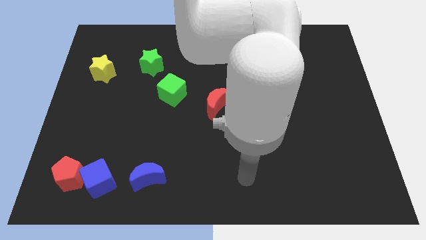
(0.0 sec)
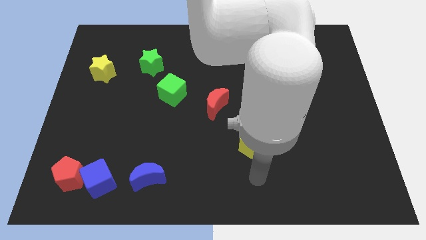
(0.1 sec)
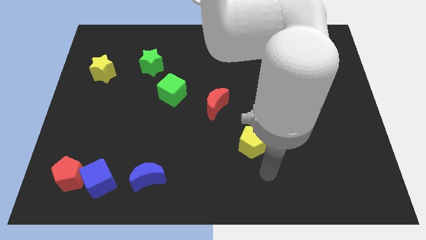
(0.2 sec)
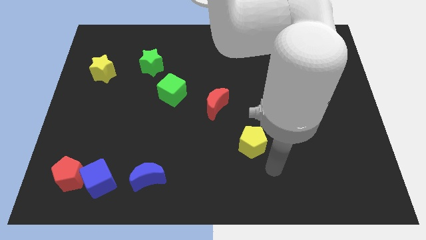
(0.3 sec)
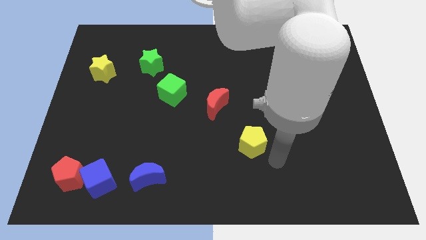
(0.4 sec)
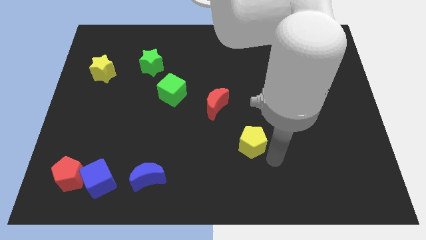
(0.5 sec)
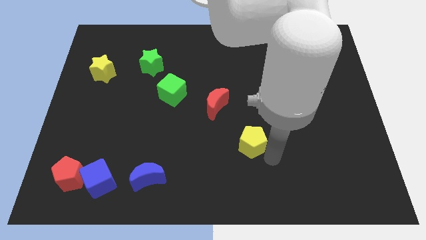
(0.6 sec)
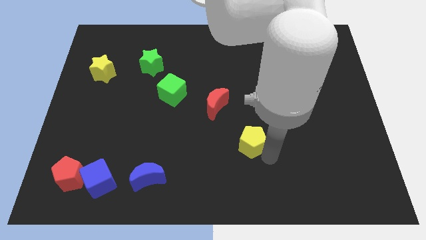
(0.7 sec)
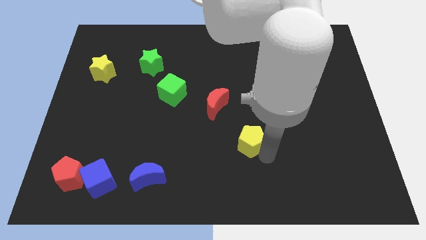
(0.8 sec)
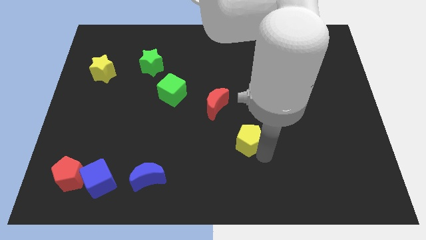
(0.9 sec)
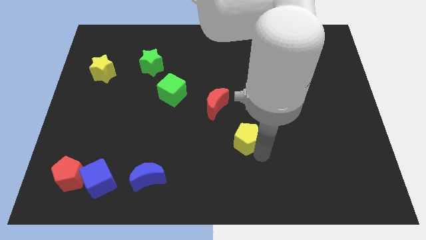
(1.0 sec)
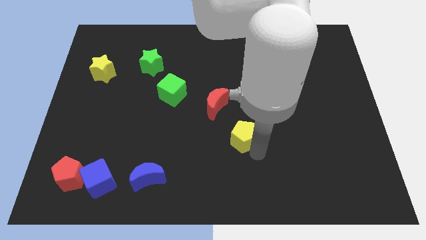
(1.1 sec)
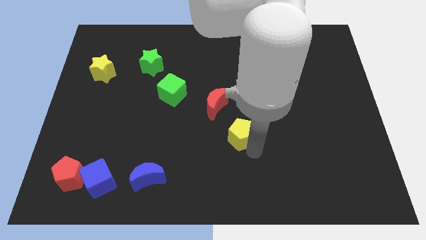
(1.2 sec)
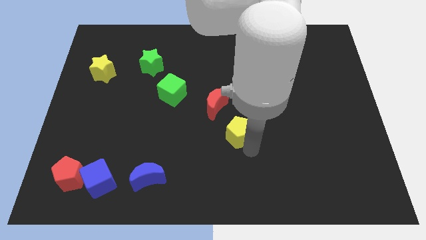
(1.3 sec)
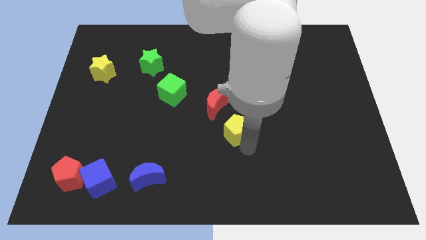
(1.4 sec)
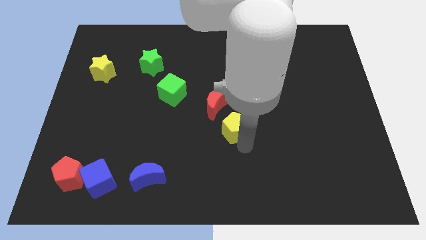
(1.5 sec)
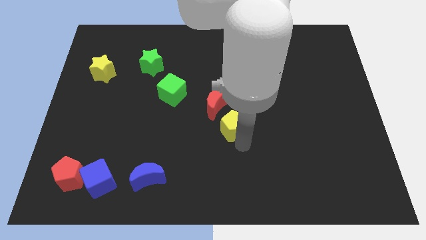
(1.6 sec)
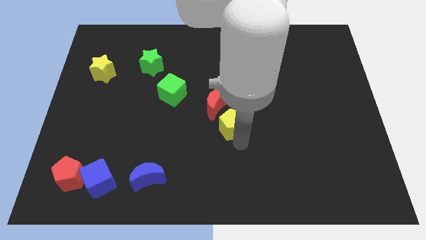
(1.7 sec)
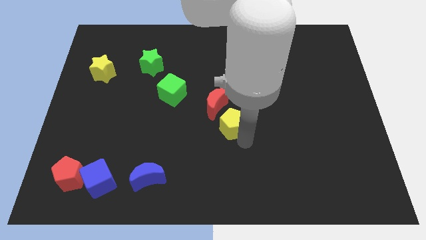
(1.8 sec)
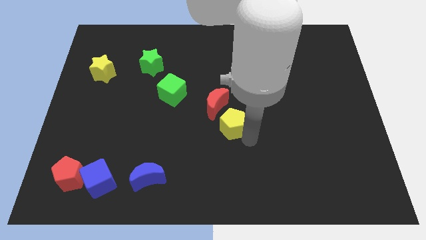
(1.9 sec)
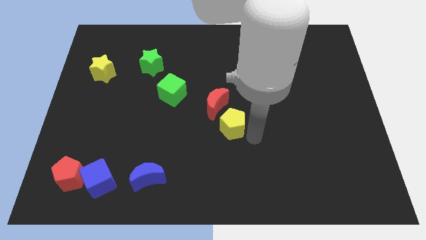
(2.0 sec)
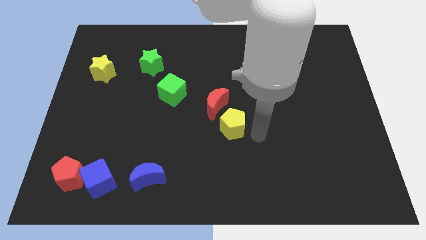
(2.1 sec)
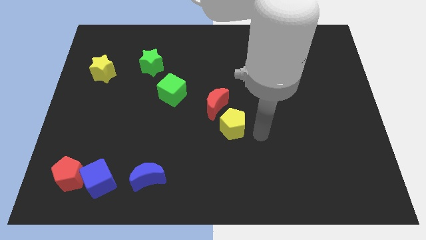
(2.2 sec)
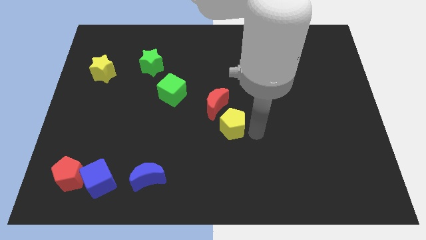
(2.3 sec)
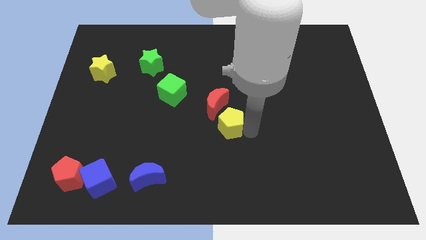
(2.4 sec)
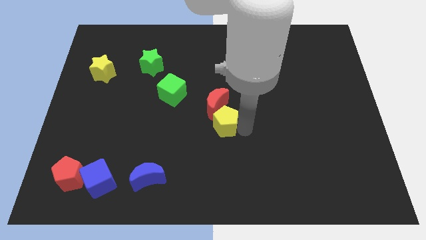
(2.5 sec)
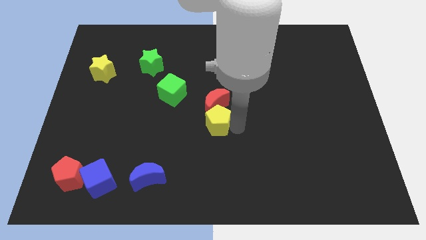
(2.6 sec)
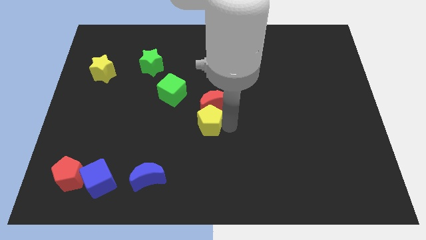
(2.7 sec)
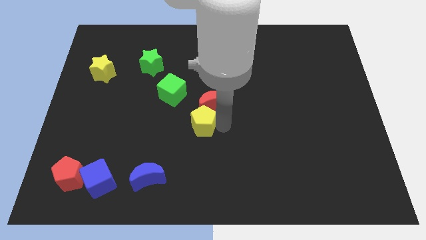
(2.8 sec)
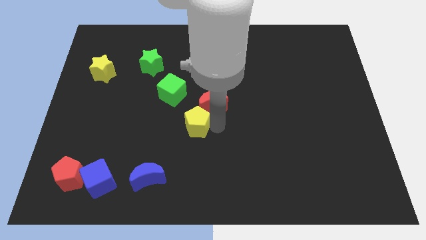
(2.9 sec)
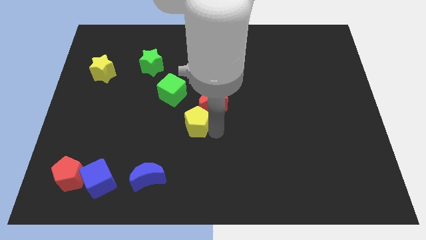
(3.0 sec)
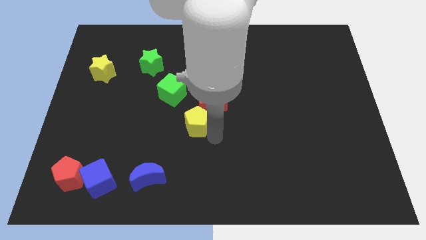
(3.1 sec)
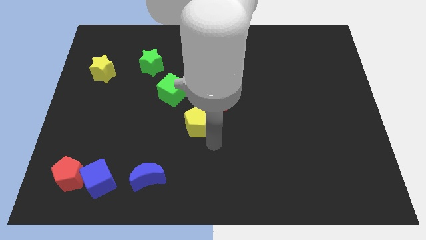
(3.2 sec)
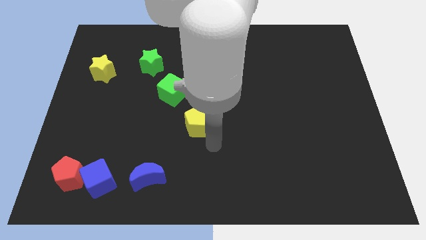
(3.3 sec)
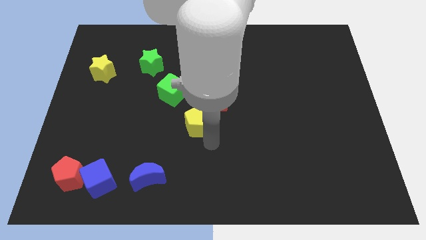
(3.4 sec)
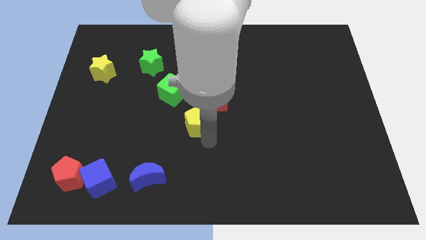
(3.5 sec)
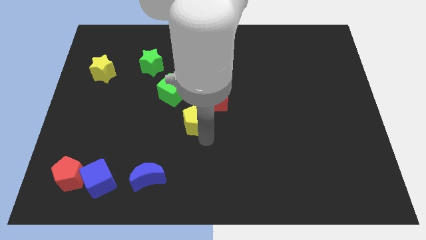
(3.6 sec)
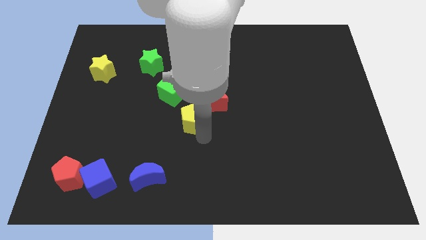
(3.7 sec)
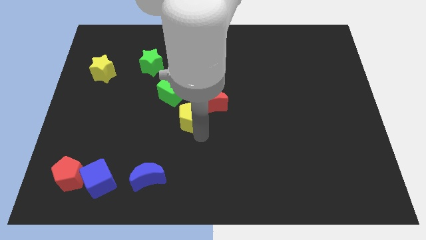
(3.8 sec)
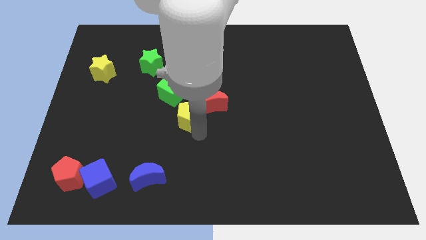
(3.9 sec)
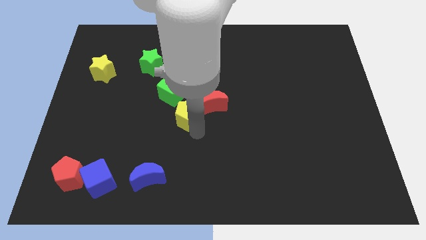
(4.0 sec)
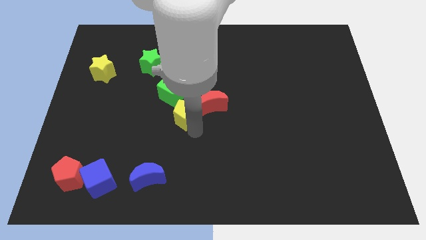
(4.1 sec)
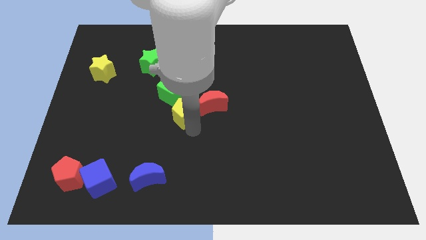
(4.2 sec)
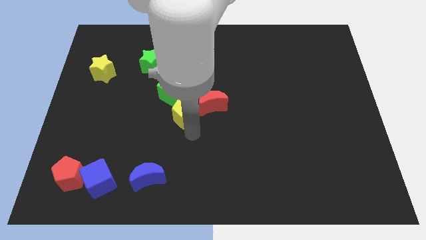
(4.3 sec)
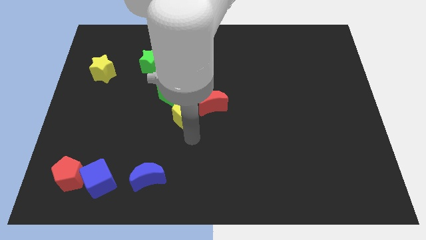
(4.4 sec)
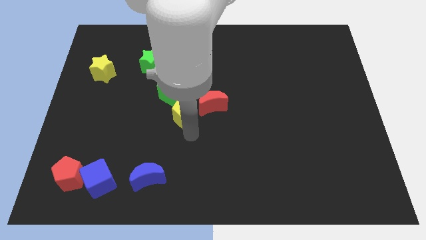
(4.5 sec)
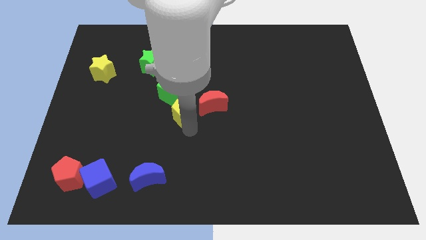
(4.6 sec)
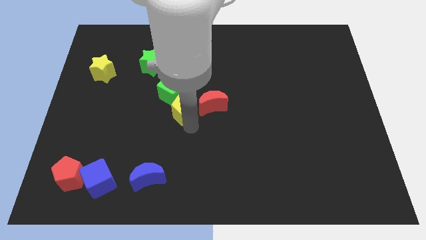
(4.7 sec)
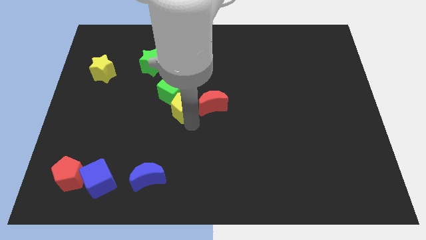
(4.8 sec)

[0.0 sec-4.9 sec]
move the yellow pentagon close to the green cube

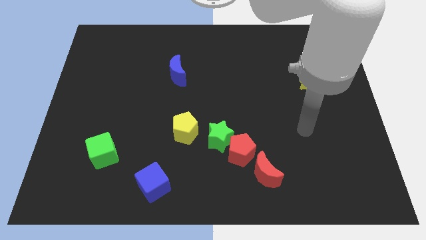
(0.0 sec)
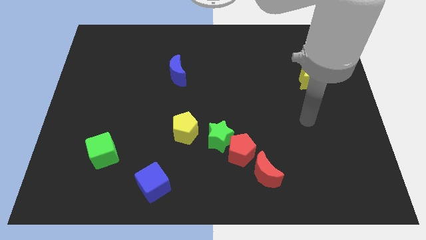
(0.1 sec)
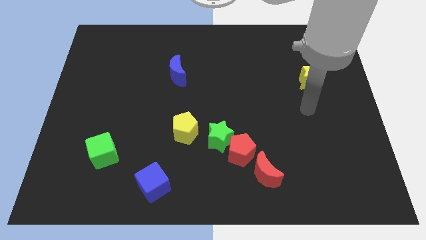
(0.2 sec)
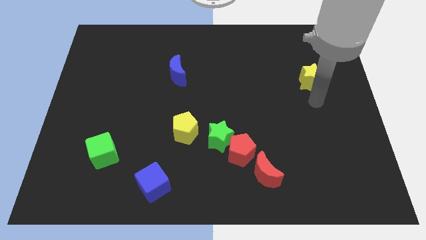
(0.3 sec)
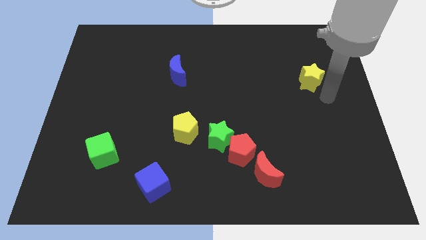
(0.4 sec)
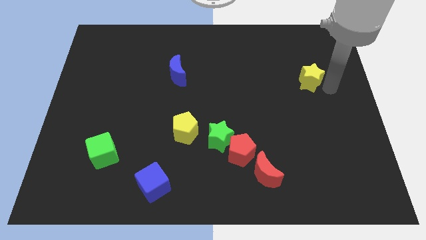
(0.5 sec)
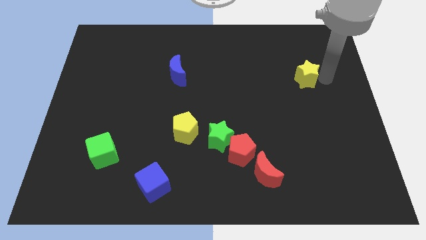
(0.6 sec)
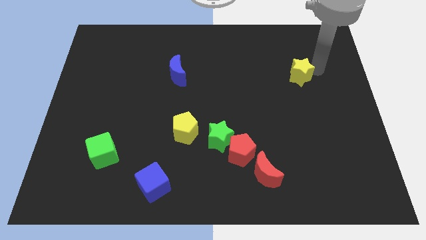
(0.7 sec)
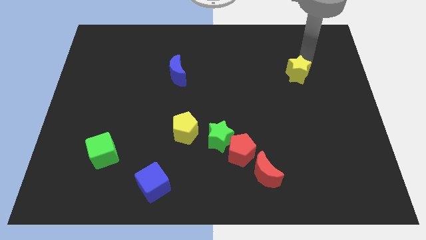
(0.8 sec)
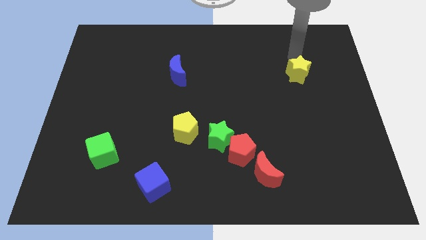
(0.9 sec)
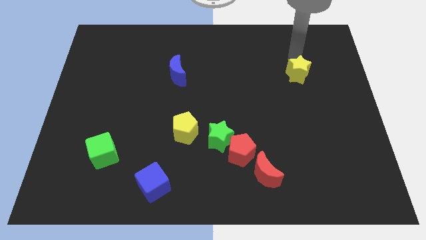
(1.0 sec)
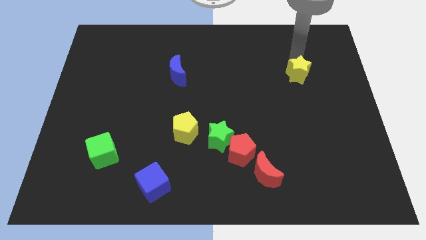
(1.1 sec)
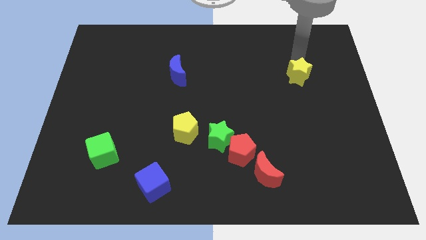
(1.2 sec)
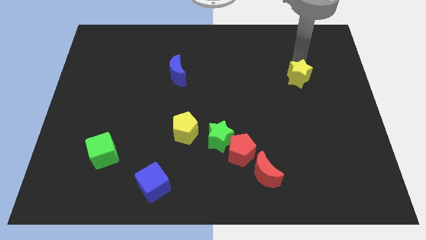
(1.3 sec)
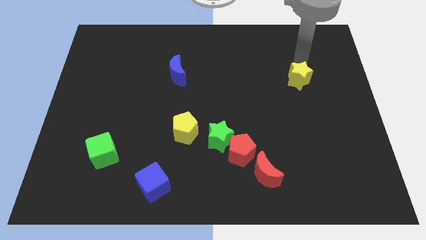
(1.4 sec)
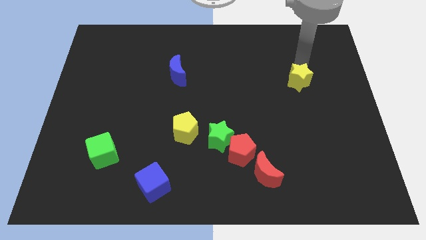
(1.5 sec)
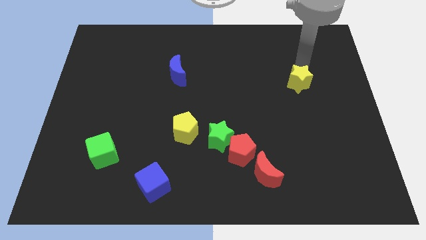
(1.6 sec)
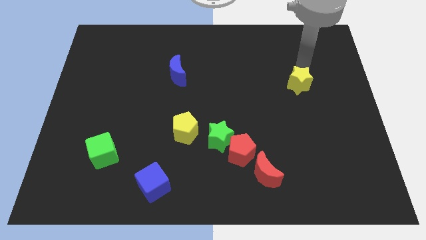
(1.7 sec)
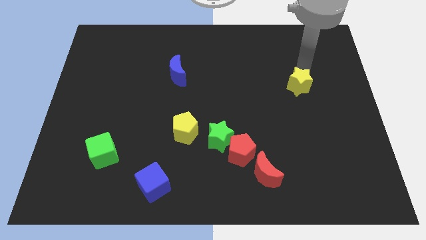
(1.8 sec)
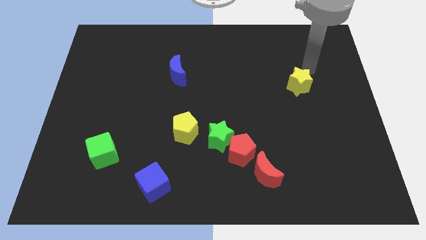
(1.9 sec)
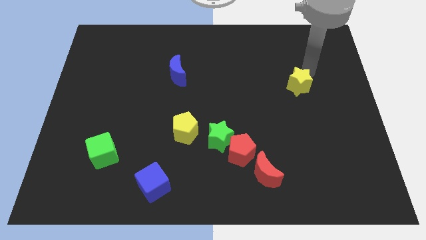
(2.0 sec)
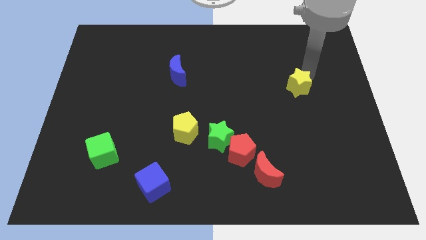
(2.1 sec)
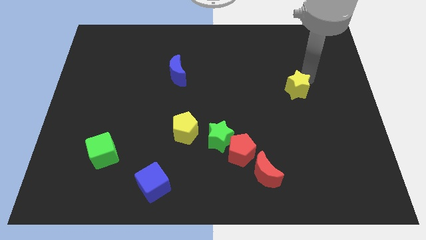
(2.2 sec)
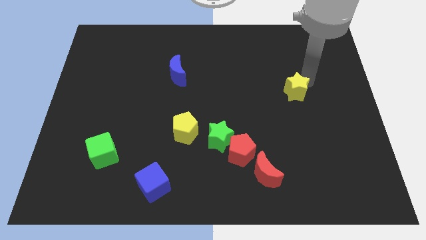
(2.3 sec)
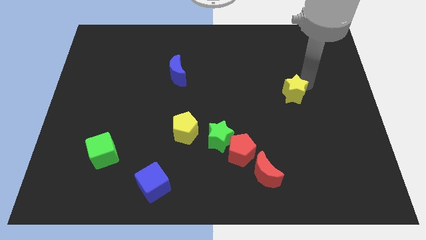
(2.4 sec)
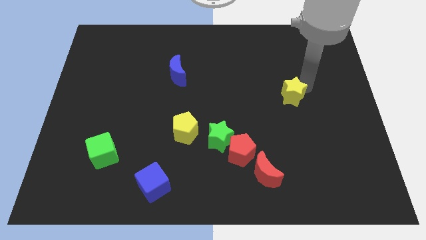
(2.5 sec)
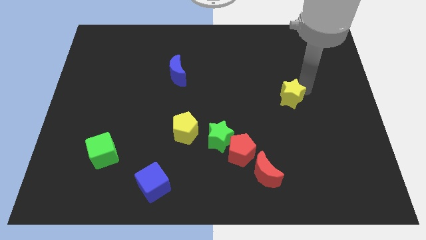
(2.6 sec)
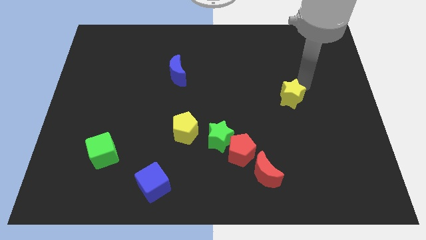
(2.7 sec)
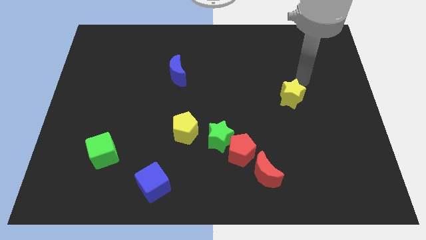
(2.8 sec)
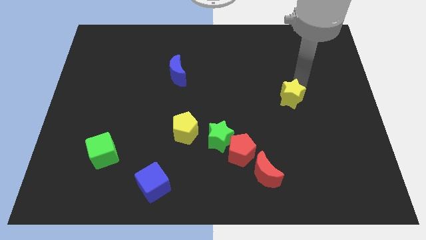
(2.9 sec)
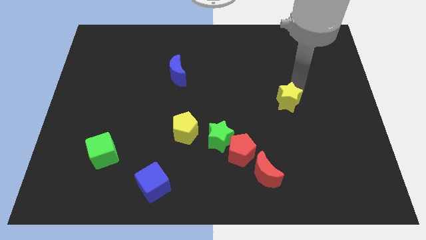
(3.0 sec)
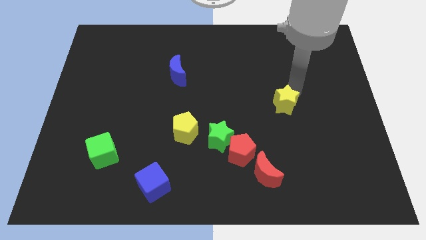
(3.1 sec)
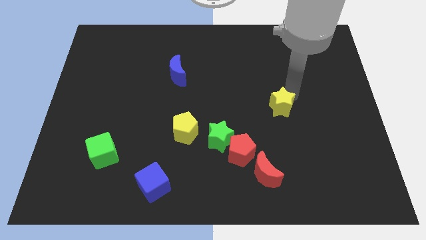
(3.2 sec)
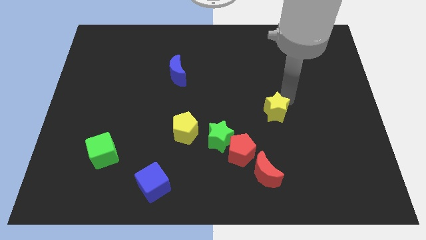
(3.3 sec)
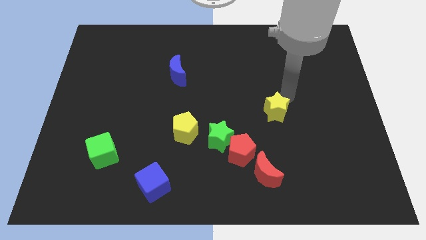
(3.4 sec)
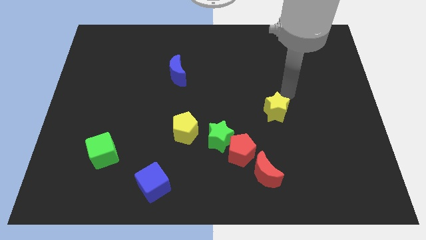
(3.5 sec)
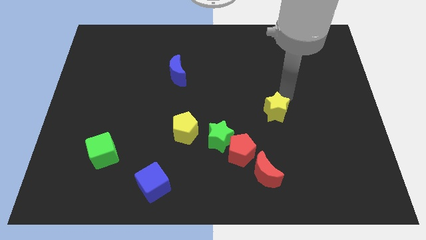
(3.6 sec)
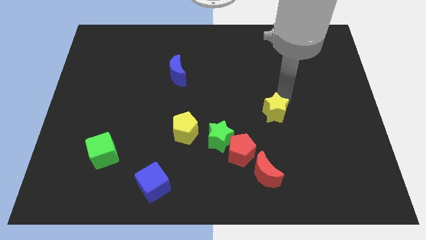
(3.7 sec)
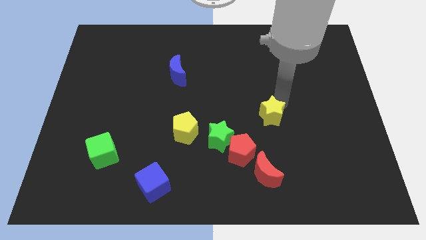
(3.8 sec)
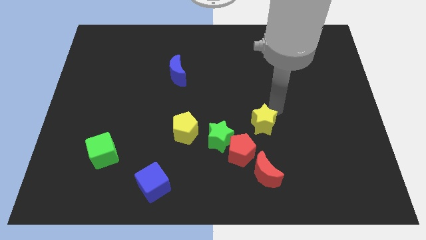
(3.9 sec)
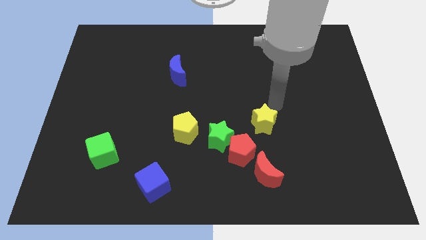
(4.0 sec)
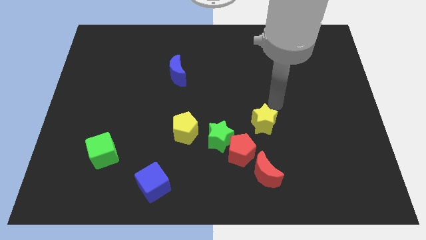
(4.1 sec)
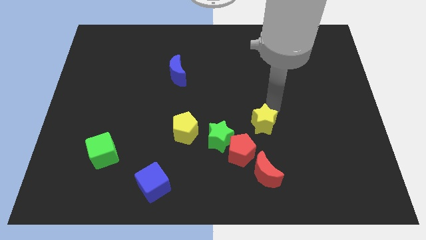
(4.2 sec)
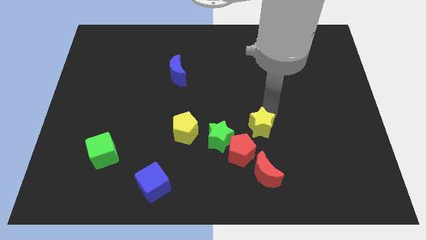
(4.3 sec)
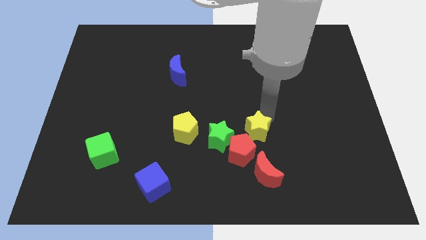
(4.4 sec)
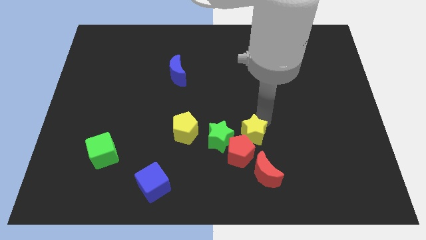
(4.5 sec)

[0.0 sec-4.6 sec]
move the yellow star to the red pentagon
